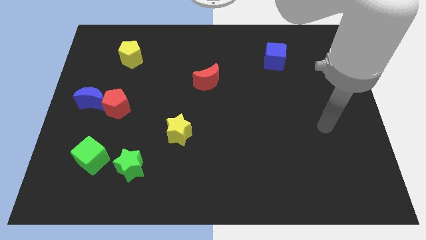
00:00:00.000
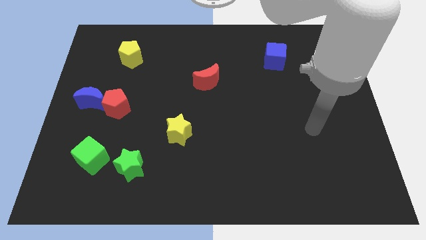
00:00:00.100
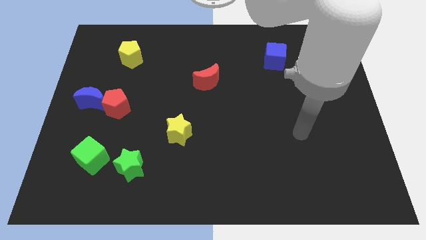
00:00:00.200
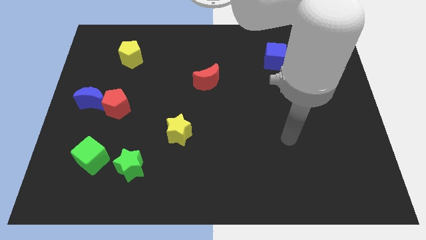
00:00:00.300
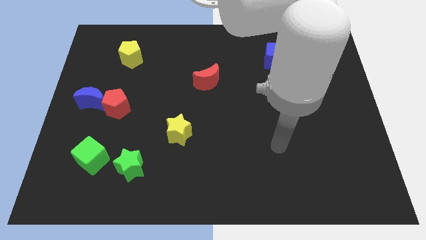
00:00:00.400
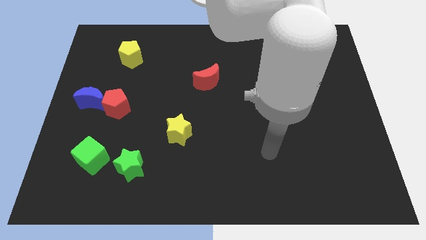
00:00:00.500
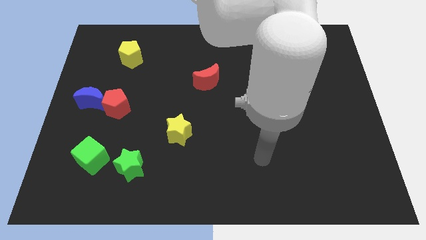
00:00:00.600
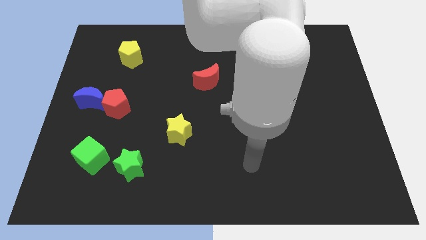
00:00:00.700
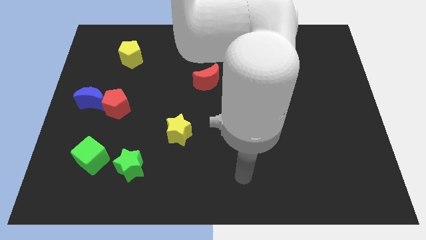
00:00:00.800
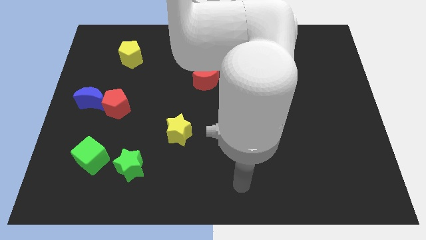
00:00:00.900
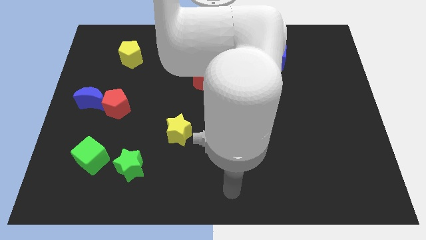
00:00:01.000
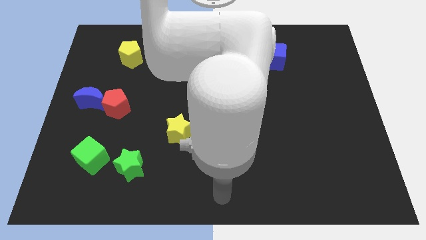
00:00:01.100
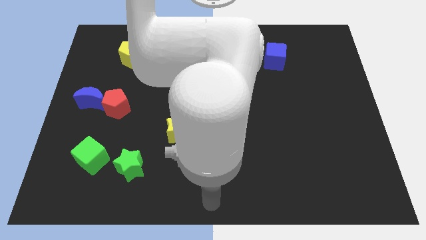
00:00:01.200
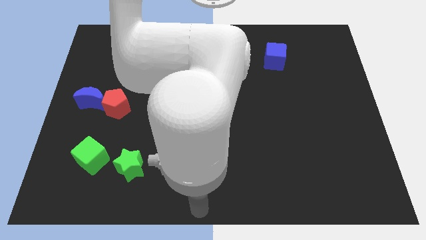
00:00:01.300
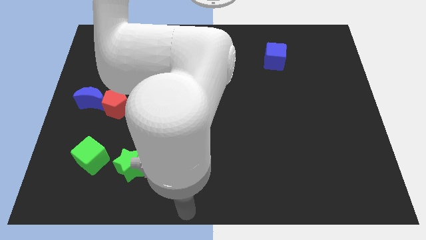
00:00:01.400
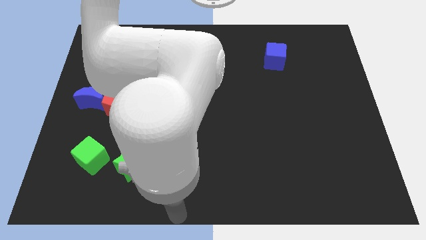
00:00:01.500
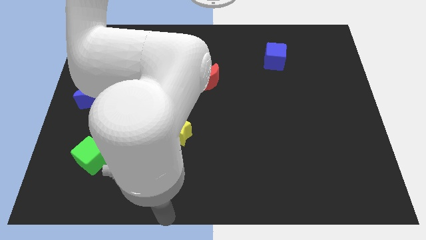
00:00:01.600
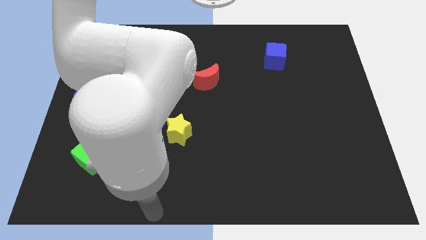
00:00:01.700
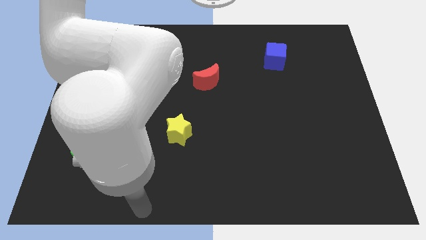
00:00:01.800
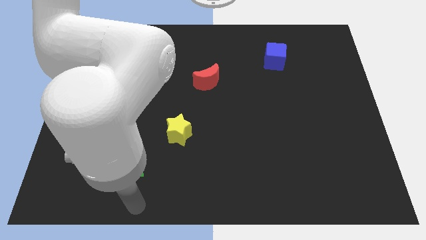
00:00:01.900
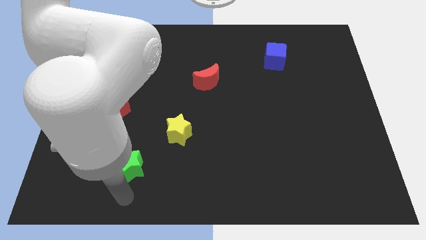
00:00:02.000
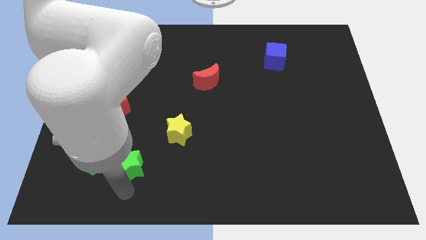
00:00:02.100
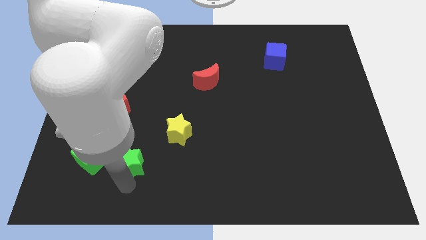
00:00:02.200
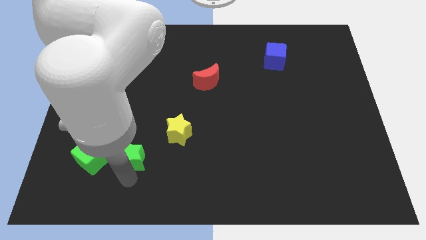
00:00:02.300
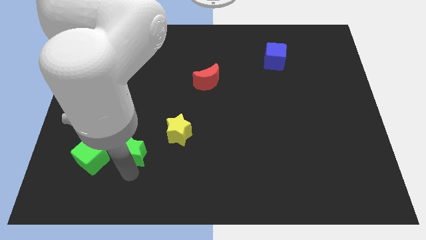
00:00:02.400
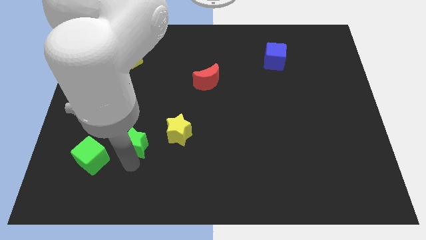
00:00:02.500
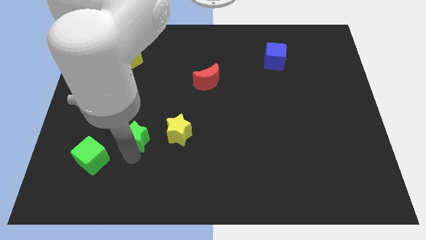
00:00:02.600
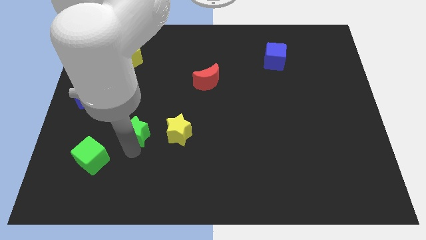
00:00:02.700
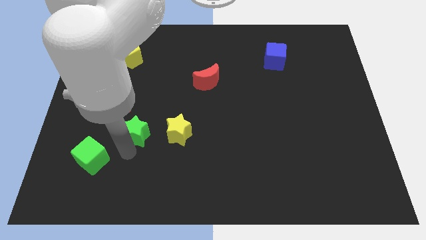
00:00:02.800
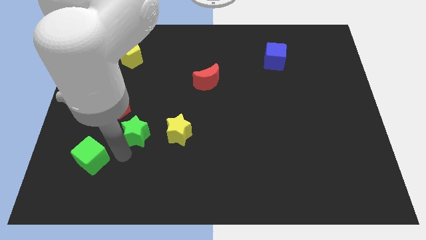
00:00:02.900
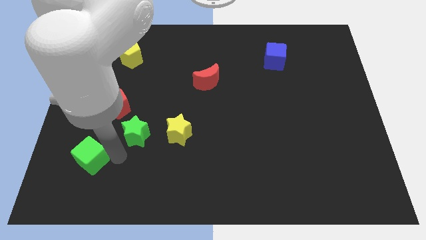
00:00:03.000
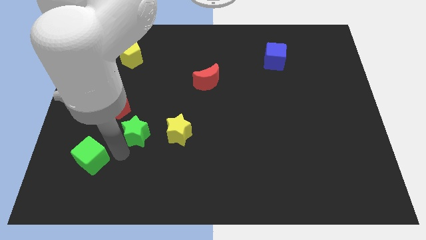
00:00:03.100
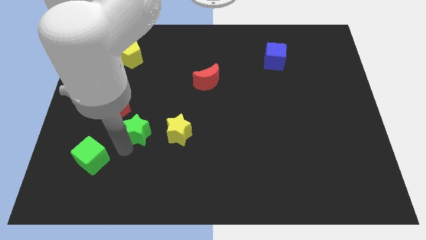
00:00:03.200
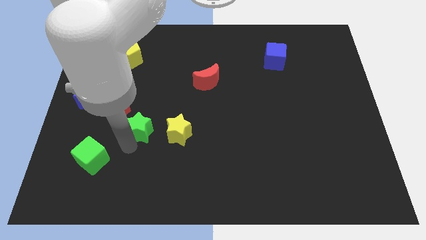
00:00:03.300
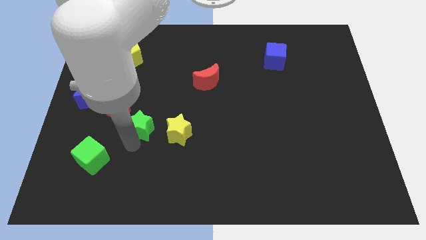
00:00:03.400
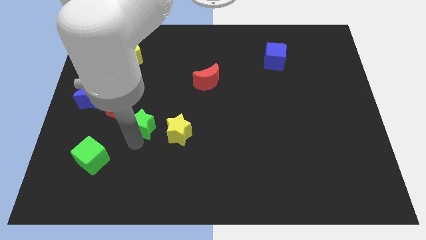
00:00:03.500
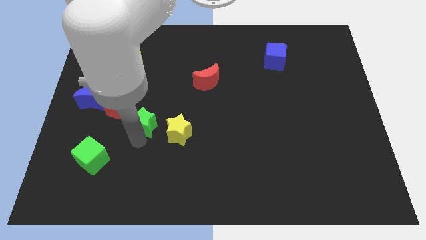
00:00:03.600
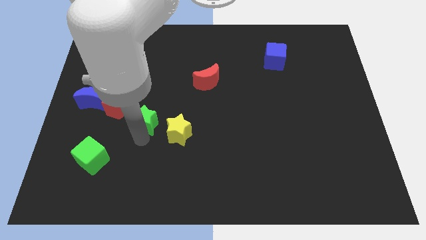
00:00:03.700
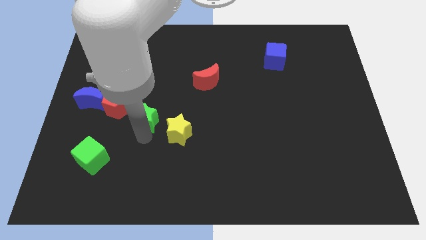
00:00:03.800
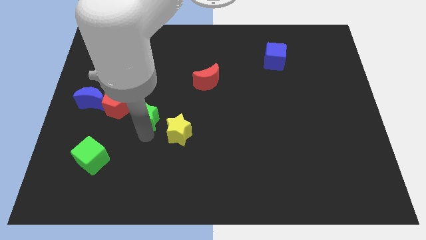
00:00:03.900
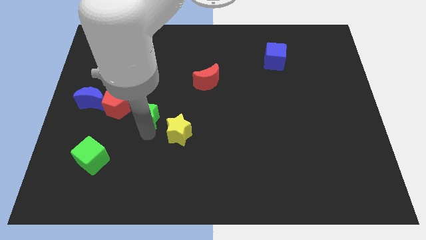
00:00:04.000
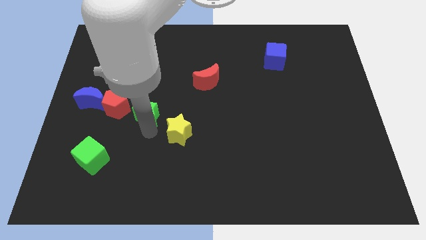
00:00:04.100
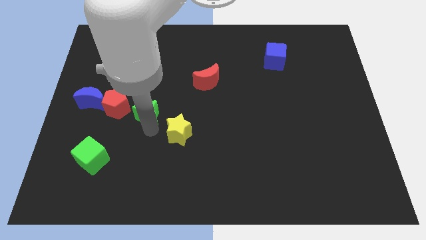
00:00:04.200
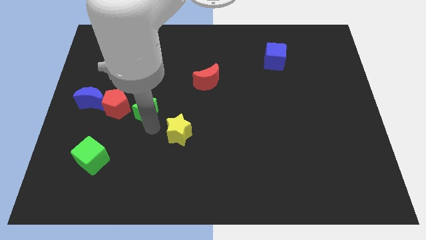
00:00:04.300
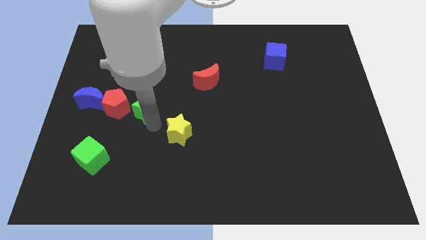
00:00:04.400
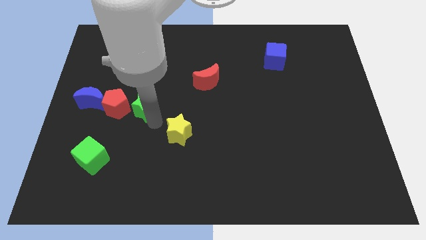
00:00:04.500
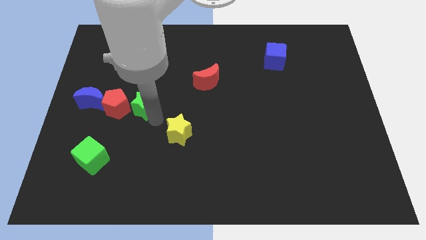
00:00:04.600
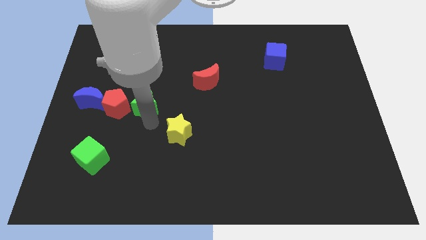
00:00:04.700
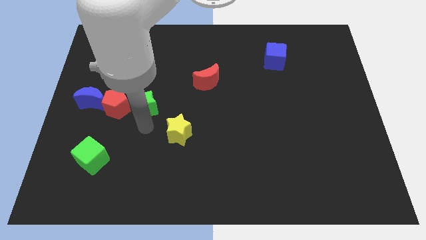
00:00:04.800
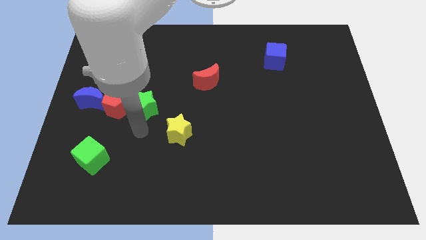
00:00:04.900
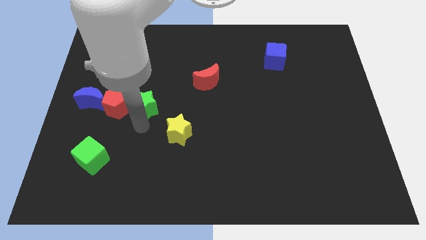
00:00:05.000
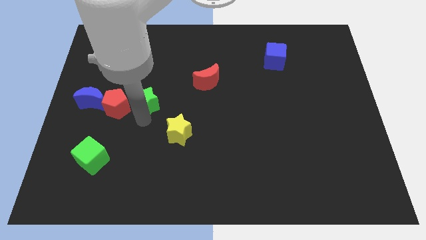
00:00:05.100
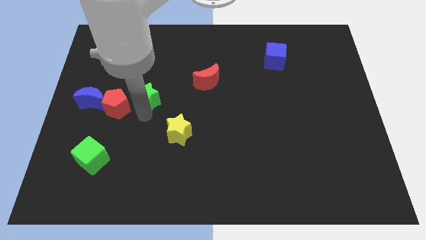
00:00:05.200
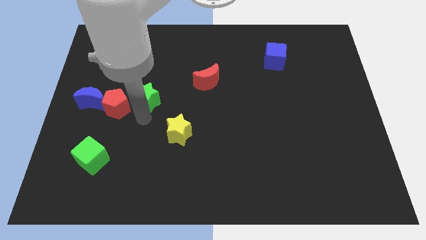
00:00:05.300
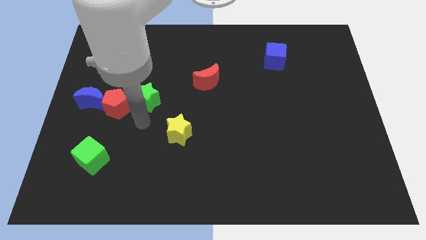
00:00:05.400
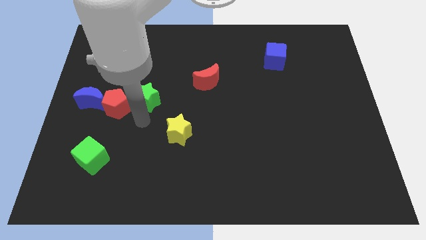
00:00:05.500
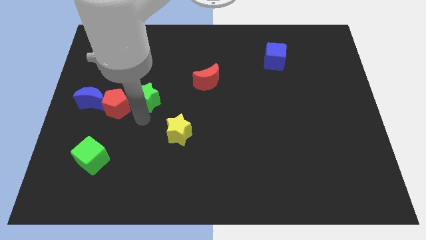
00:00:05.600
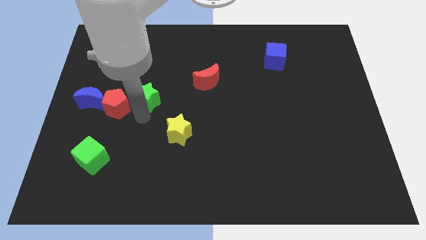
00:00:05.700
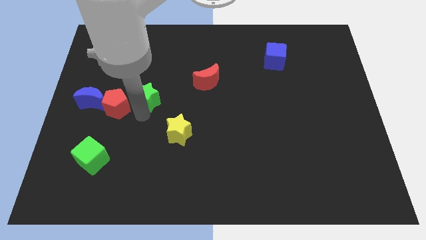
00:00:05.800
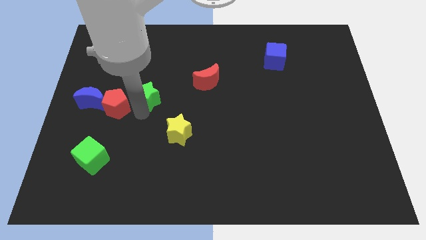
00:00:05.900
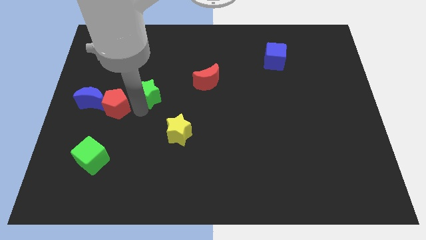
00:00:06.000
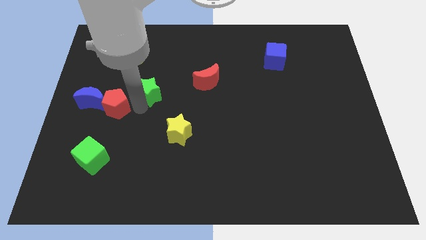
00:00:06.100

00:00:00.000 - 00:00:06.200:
move the green star up

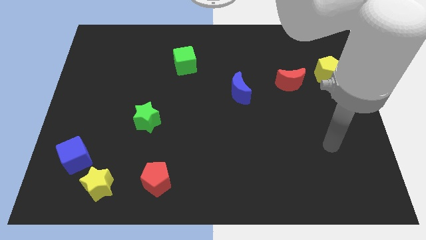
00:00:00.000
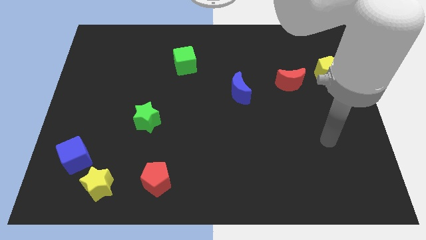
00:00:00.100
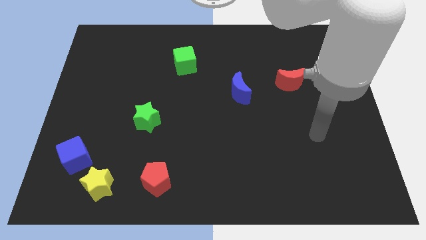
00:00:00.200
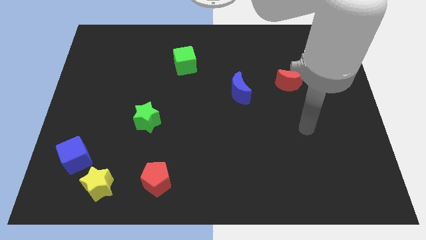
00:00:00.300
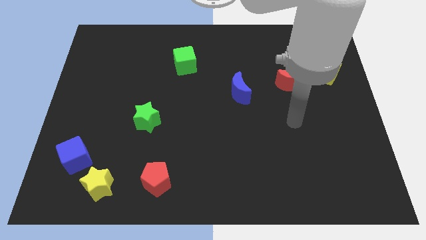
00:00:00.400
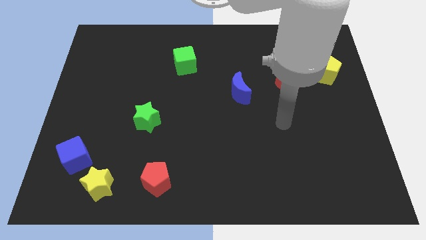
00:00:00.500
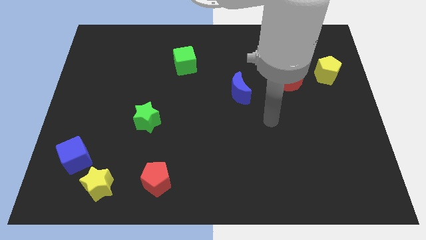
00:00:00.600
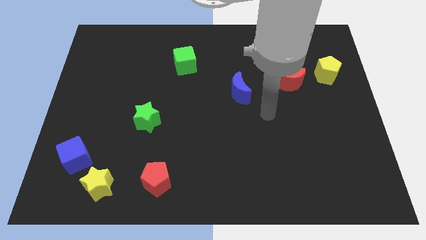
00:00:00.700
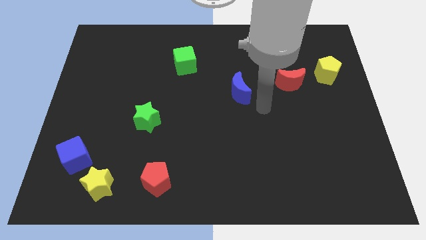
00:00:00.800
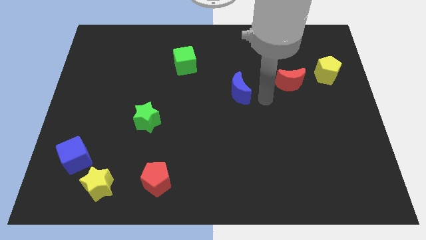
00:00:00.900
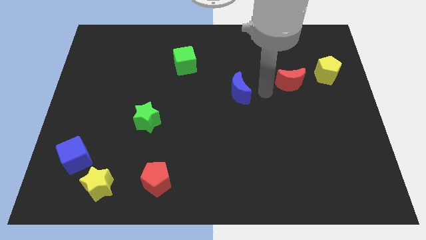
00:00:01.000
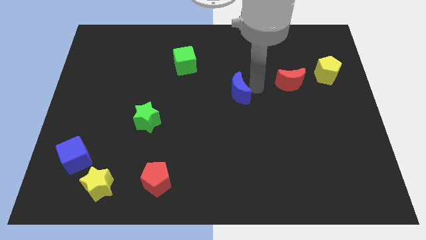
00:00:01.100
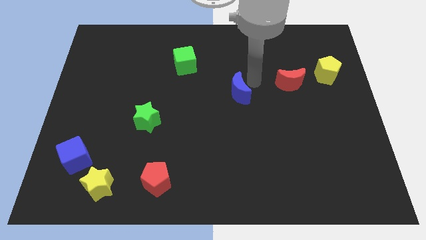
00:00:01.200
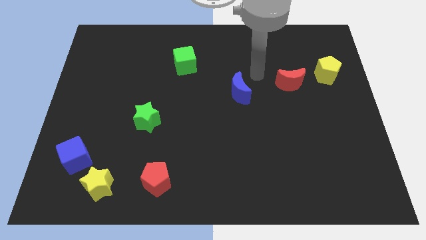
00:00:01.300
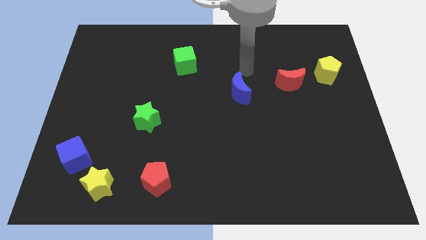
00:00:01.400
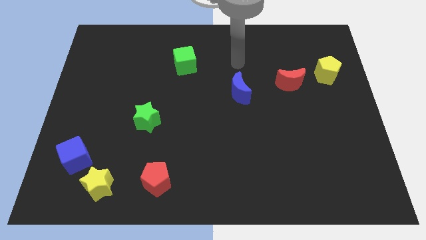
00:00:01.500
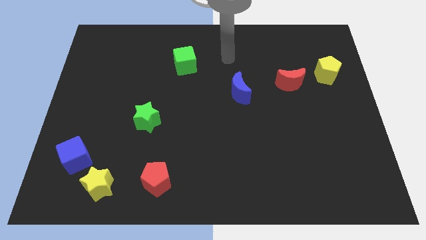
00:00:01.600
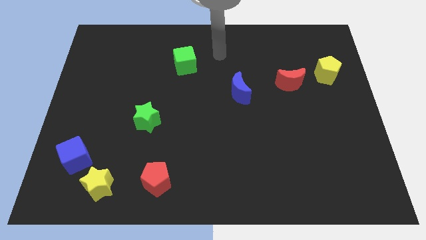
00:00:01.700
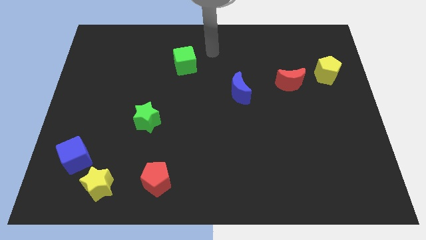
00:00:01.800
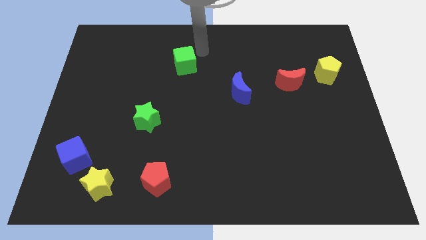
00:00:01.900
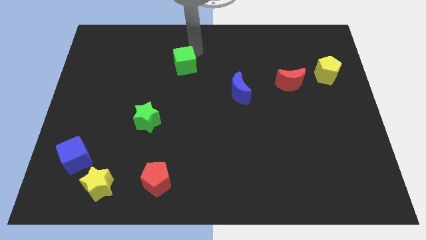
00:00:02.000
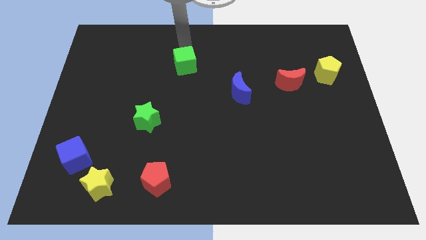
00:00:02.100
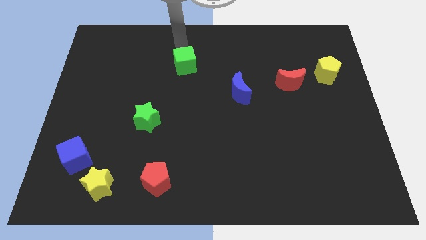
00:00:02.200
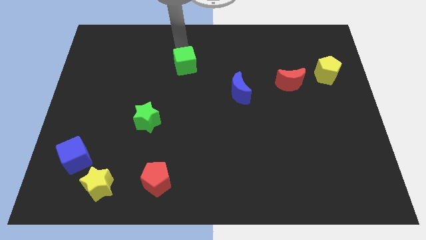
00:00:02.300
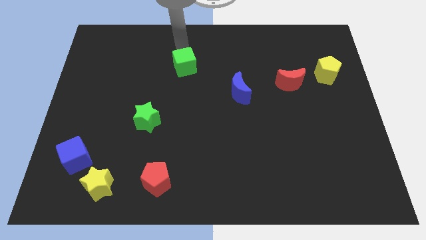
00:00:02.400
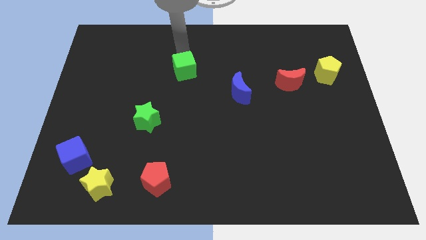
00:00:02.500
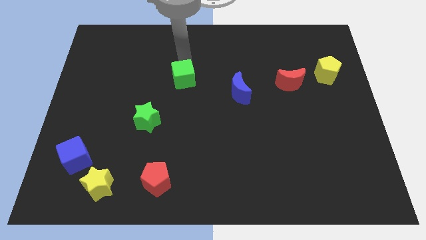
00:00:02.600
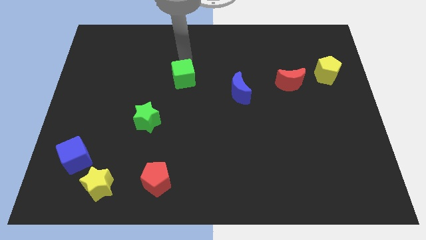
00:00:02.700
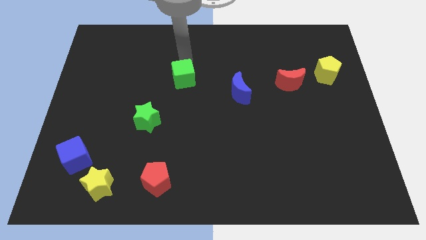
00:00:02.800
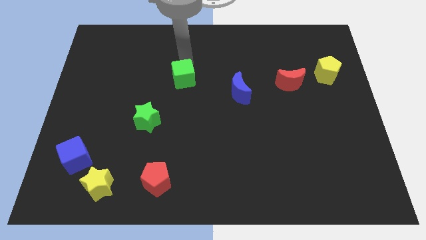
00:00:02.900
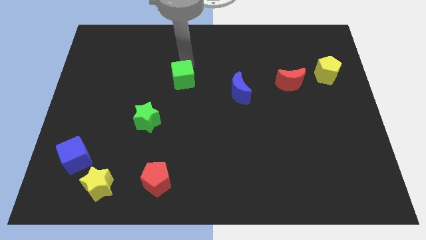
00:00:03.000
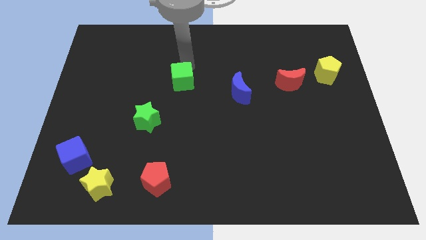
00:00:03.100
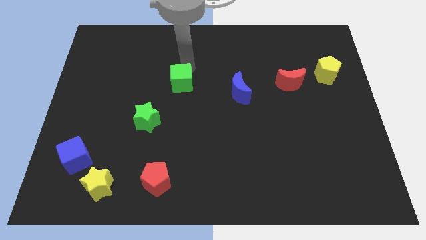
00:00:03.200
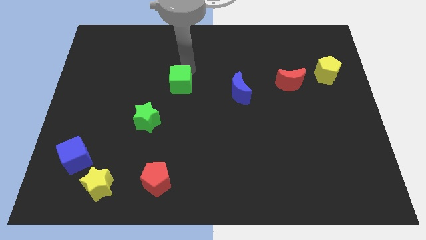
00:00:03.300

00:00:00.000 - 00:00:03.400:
slide the green cube slightly down
